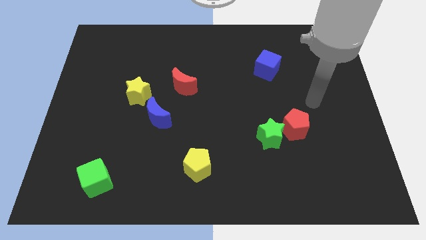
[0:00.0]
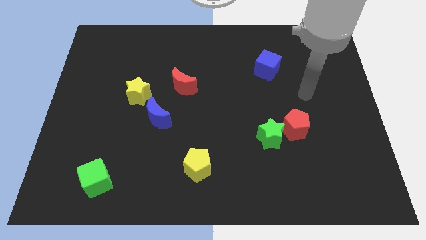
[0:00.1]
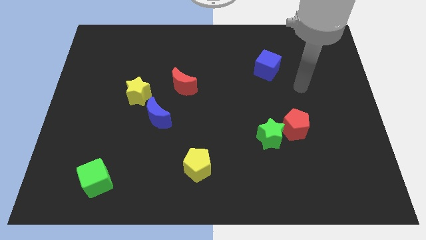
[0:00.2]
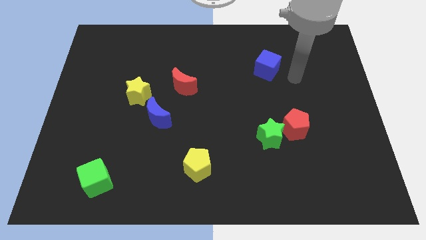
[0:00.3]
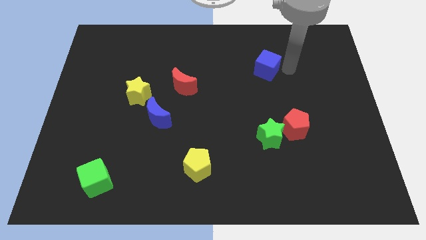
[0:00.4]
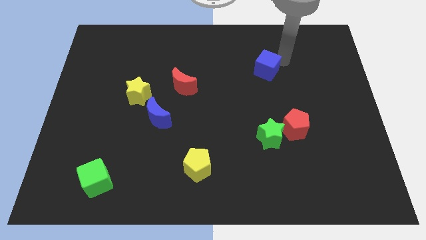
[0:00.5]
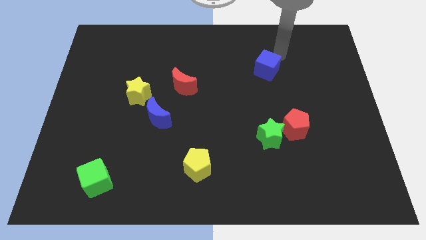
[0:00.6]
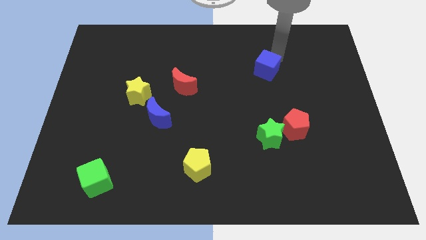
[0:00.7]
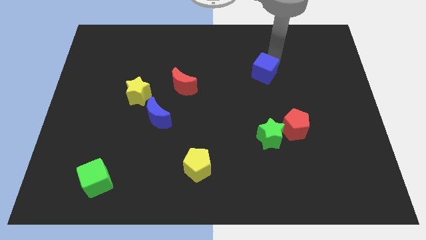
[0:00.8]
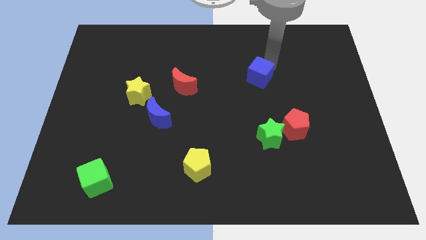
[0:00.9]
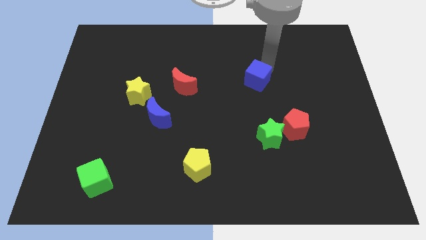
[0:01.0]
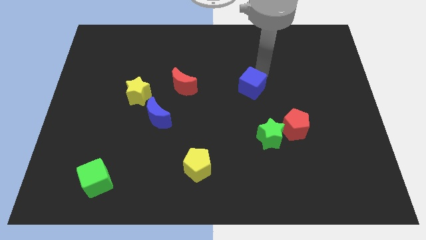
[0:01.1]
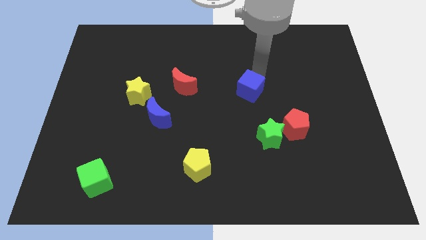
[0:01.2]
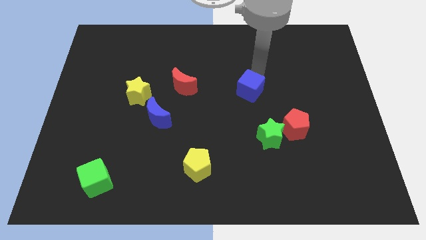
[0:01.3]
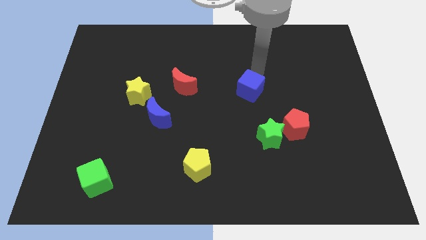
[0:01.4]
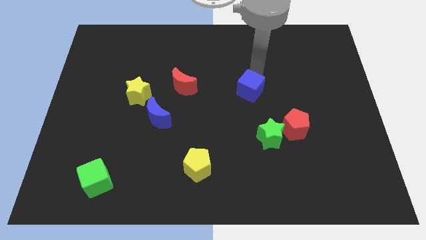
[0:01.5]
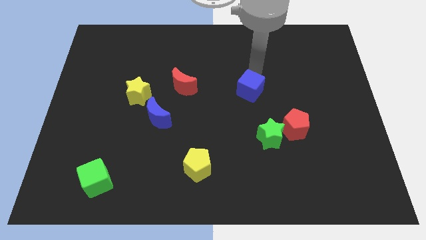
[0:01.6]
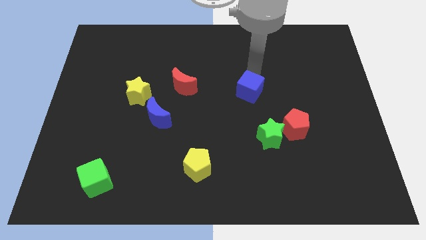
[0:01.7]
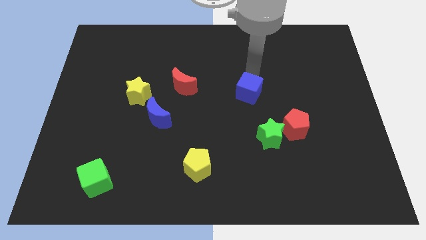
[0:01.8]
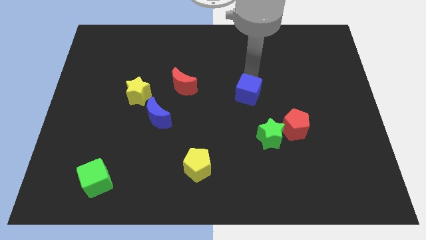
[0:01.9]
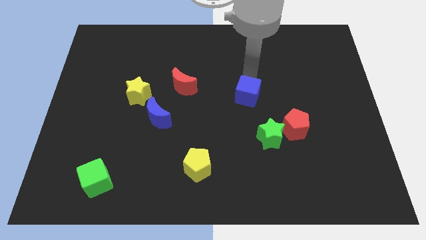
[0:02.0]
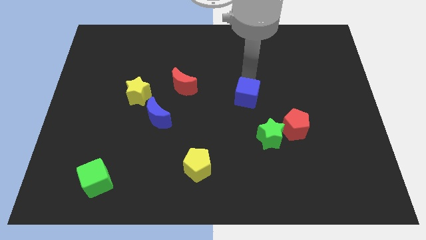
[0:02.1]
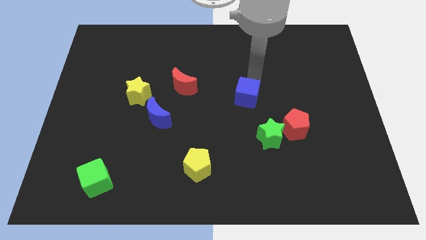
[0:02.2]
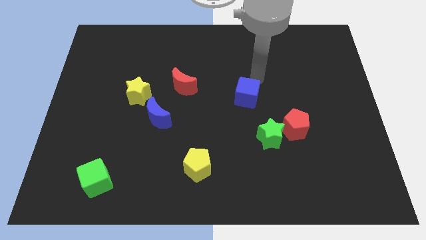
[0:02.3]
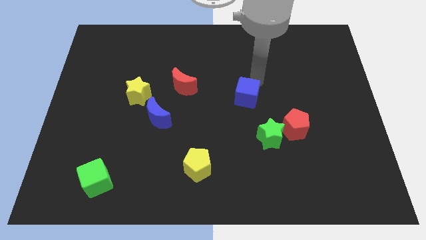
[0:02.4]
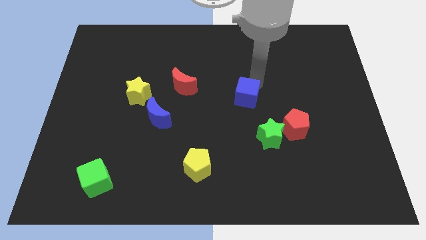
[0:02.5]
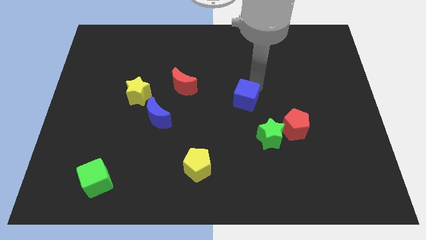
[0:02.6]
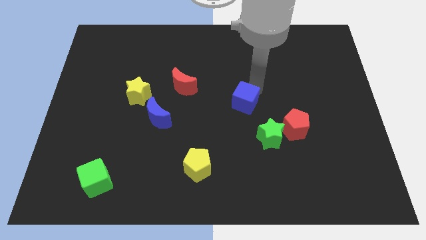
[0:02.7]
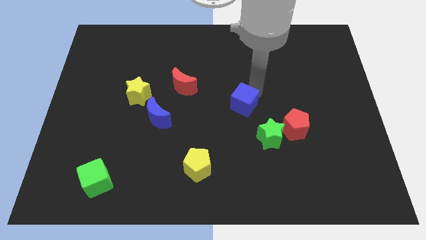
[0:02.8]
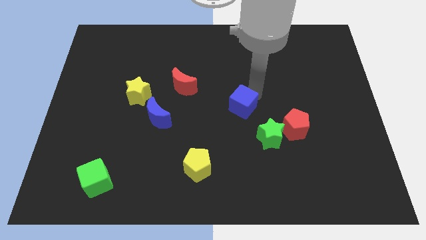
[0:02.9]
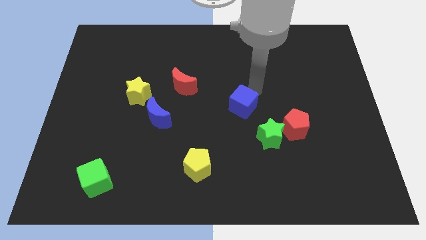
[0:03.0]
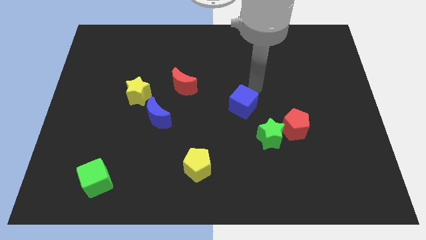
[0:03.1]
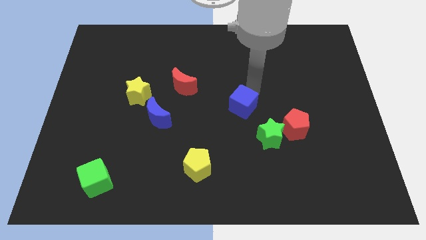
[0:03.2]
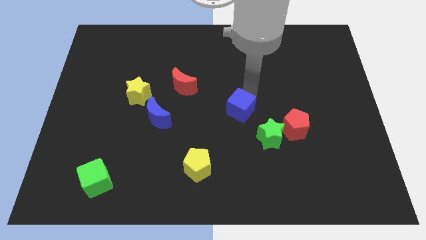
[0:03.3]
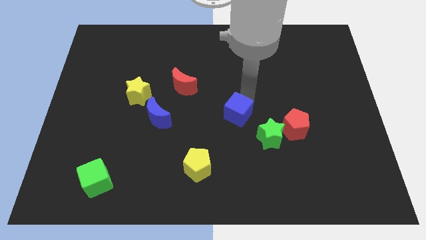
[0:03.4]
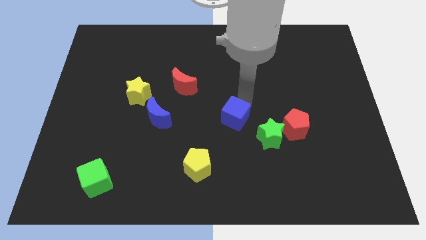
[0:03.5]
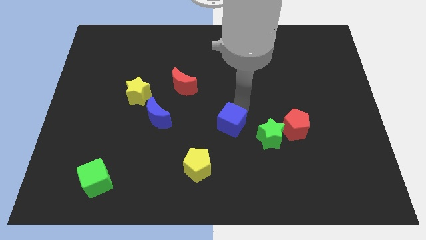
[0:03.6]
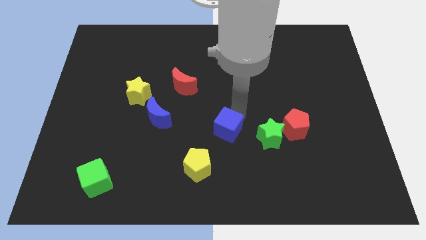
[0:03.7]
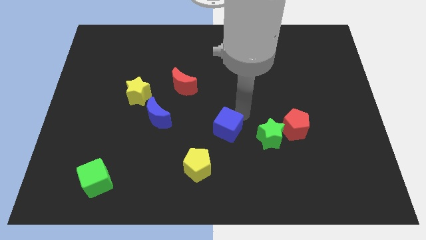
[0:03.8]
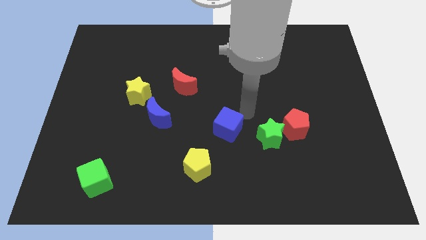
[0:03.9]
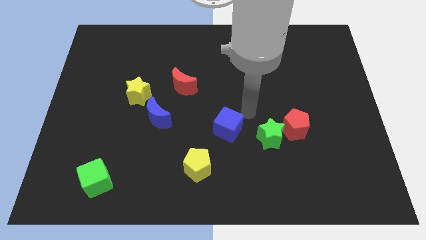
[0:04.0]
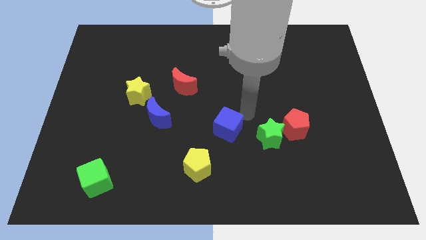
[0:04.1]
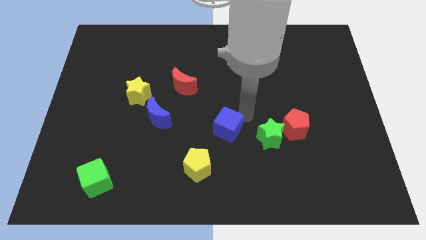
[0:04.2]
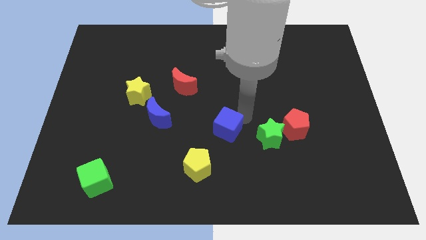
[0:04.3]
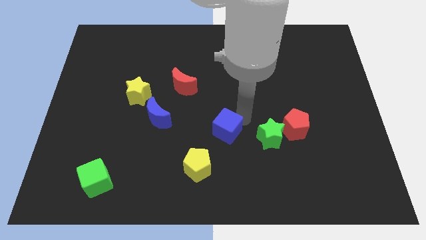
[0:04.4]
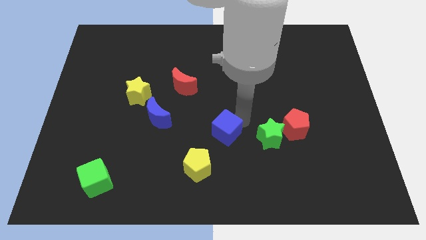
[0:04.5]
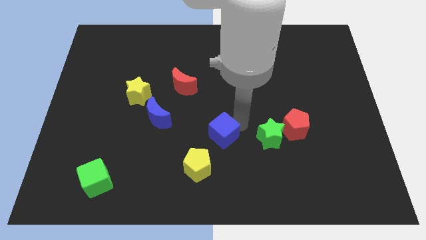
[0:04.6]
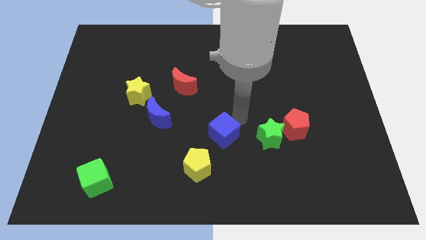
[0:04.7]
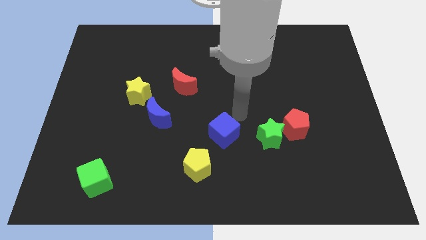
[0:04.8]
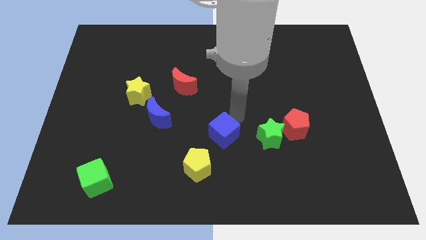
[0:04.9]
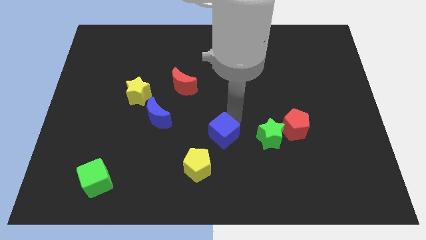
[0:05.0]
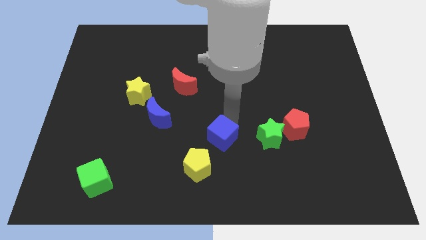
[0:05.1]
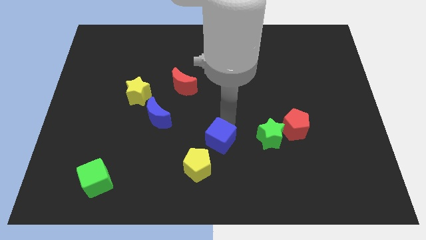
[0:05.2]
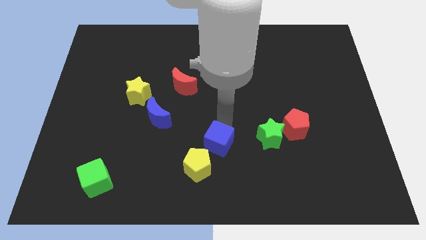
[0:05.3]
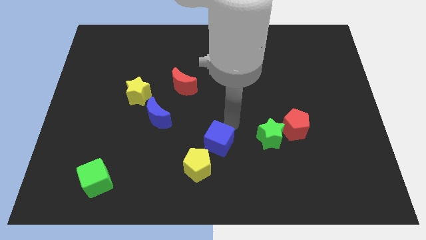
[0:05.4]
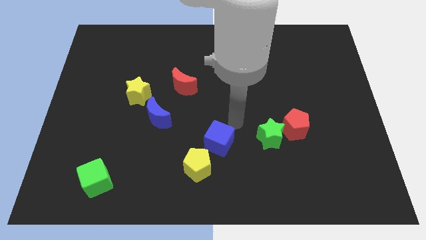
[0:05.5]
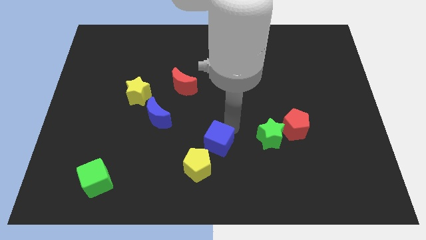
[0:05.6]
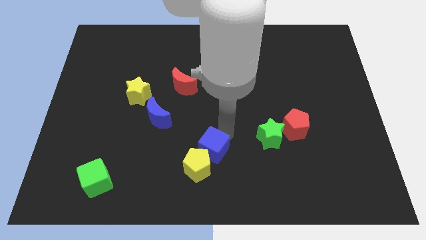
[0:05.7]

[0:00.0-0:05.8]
move the blue cube next to the yellow pentagon

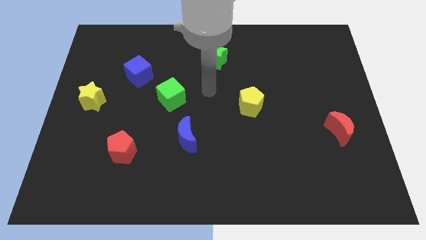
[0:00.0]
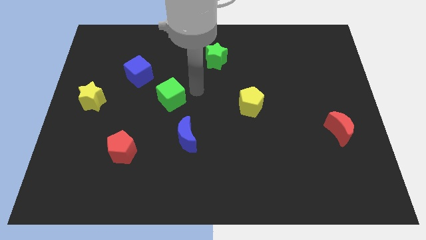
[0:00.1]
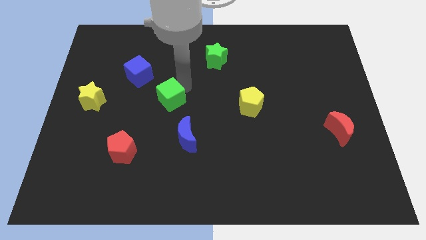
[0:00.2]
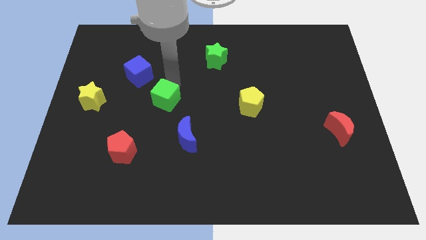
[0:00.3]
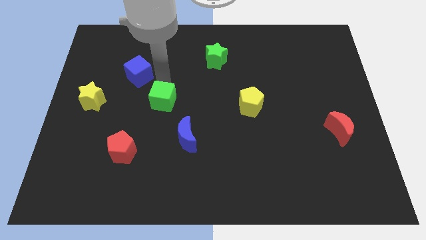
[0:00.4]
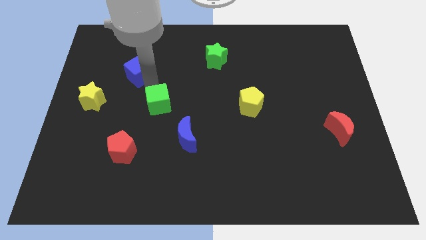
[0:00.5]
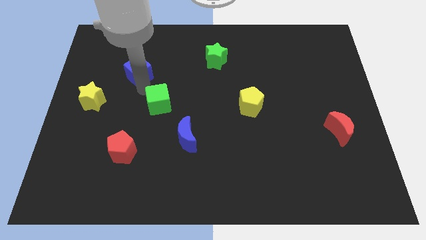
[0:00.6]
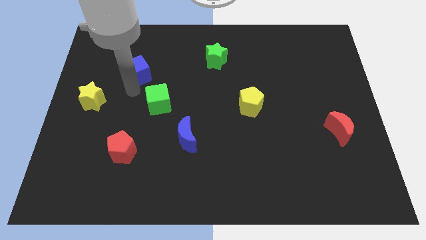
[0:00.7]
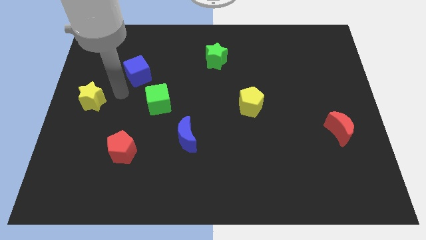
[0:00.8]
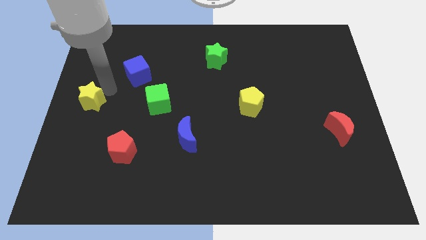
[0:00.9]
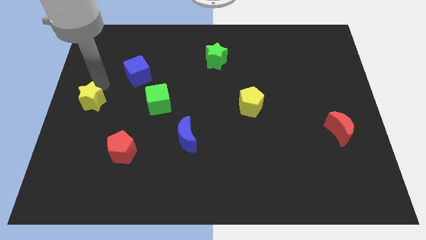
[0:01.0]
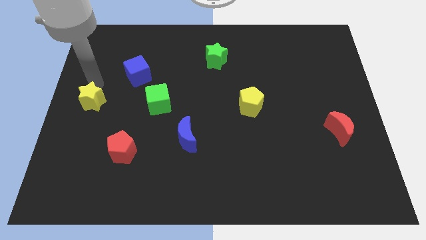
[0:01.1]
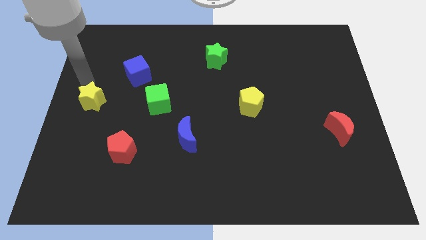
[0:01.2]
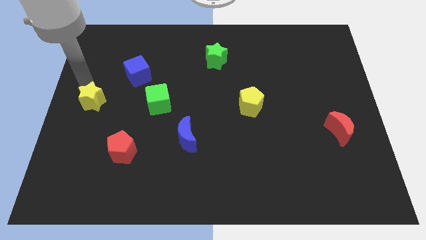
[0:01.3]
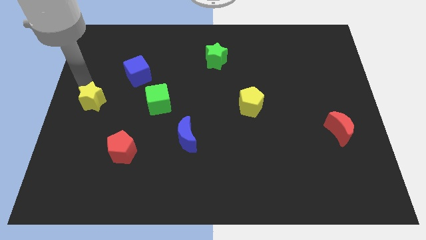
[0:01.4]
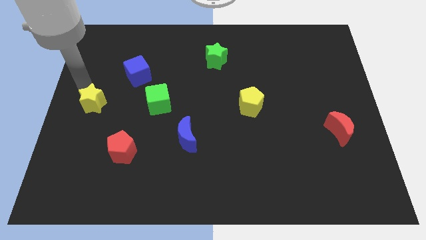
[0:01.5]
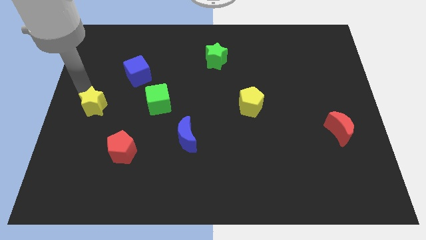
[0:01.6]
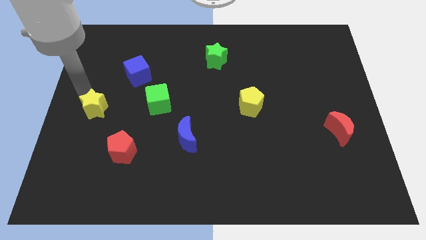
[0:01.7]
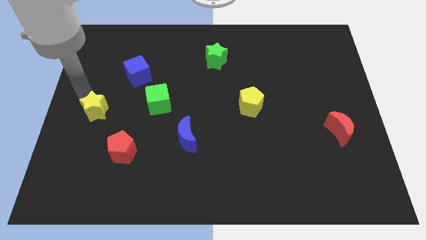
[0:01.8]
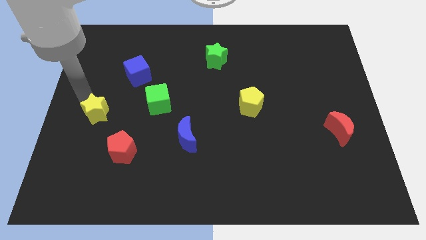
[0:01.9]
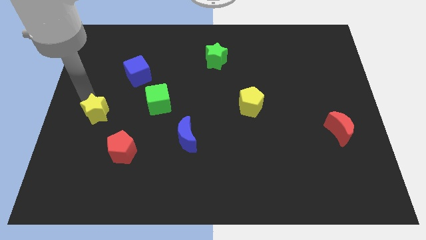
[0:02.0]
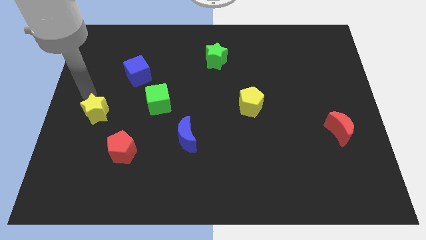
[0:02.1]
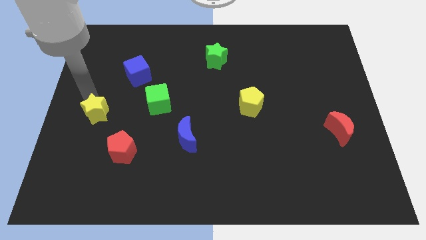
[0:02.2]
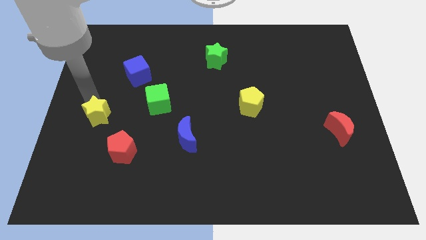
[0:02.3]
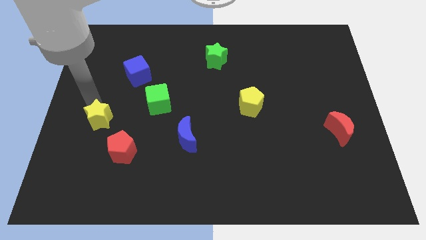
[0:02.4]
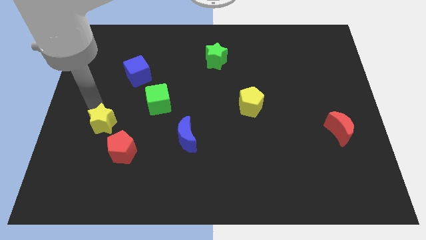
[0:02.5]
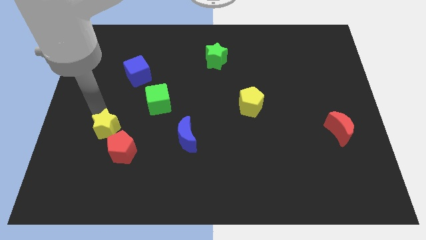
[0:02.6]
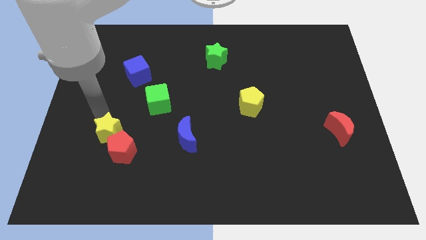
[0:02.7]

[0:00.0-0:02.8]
move the yellow star towards the red pentagon
